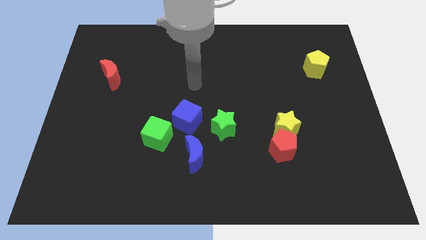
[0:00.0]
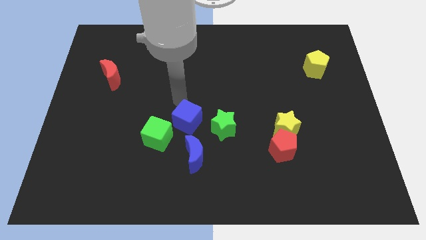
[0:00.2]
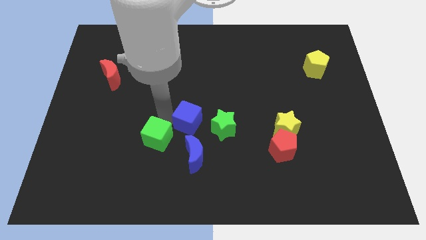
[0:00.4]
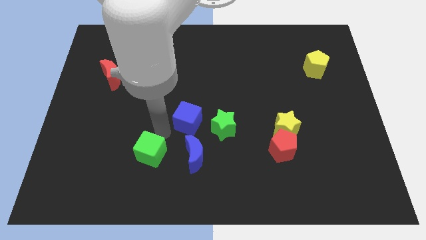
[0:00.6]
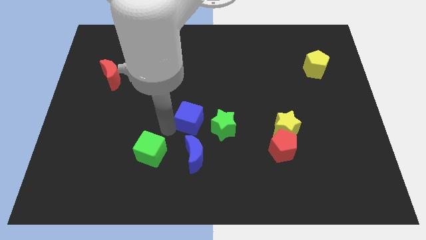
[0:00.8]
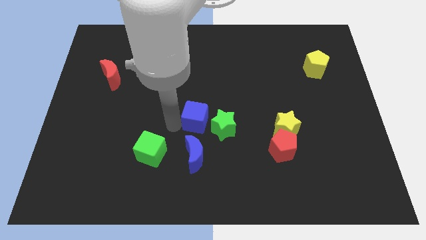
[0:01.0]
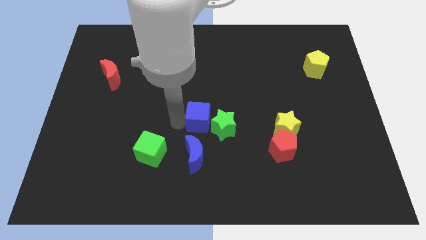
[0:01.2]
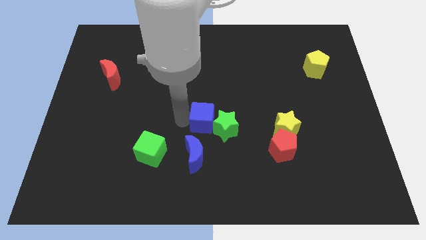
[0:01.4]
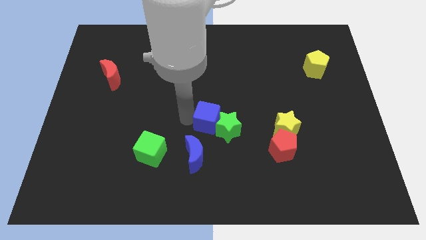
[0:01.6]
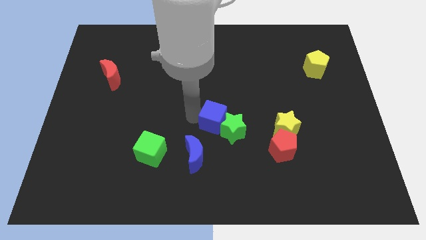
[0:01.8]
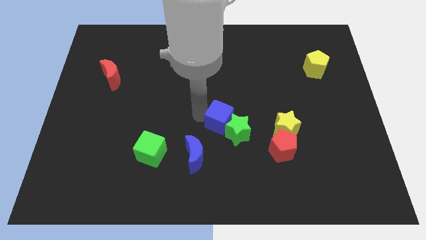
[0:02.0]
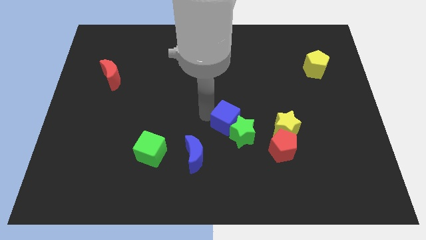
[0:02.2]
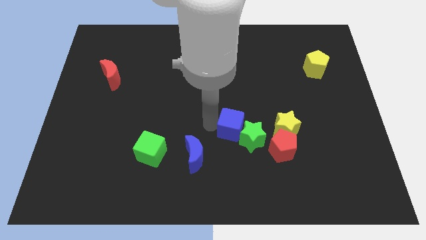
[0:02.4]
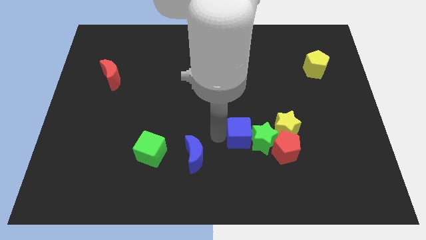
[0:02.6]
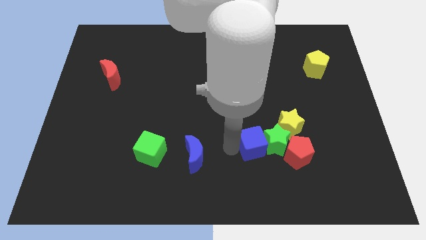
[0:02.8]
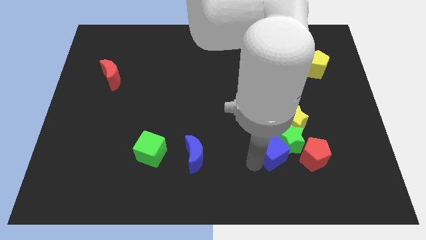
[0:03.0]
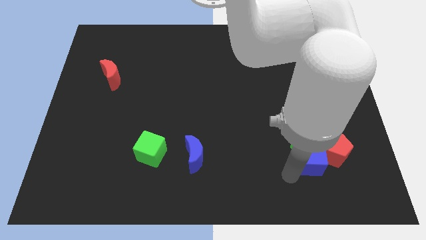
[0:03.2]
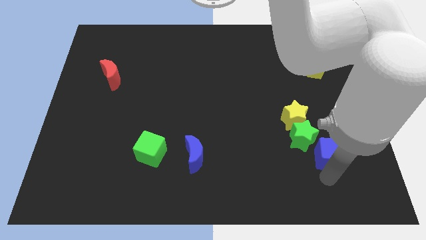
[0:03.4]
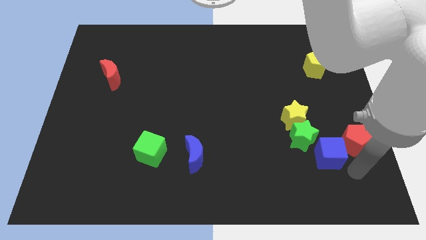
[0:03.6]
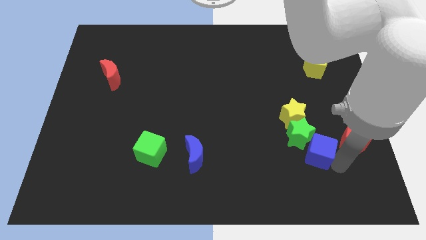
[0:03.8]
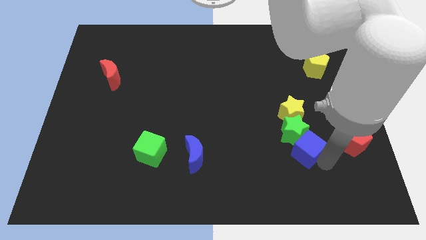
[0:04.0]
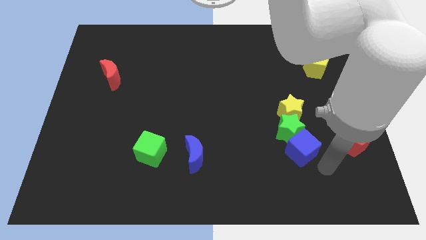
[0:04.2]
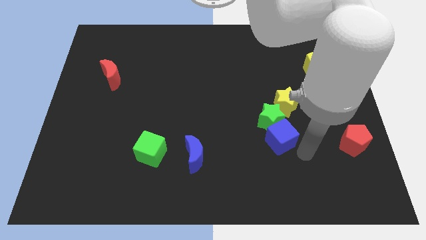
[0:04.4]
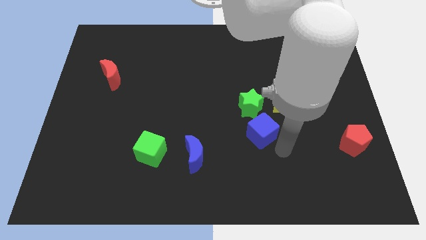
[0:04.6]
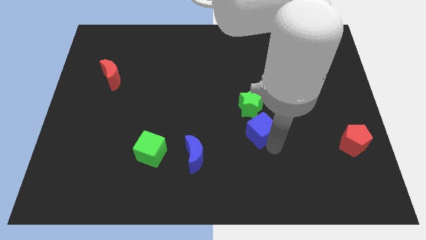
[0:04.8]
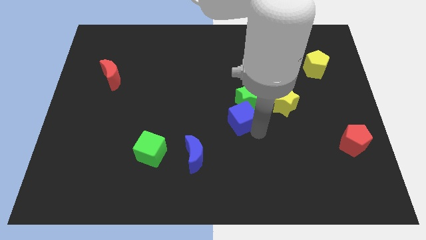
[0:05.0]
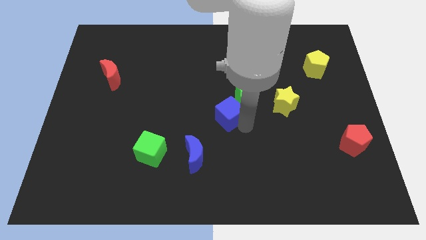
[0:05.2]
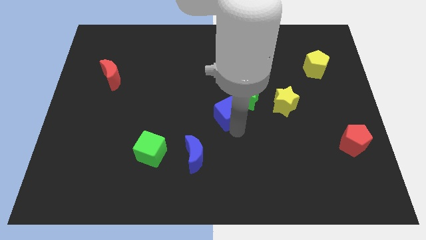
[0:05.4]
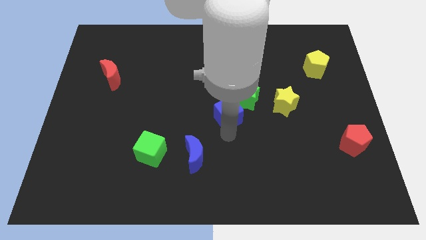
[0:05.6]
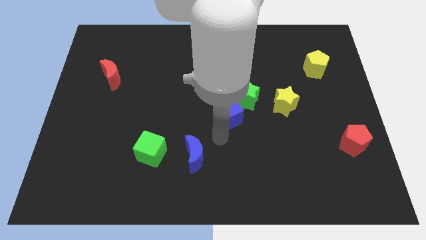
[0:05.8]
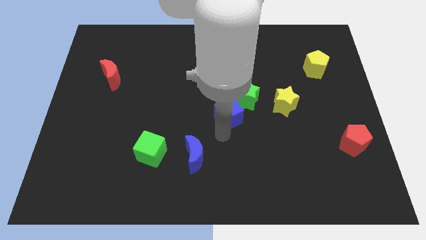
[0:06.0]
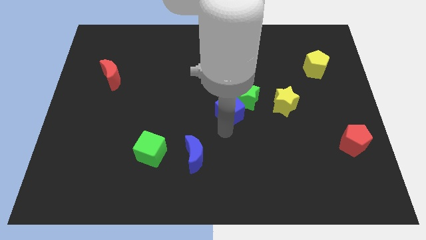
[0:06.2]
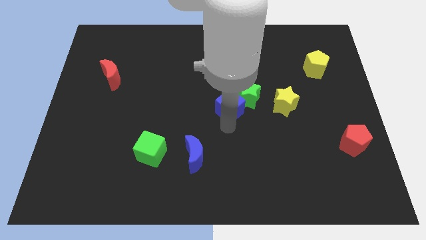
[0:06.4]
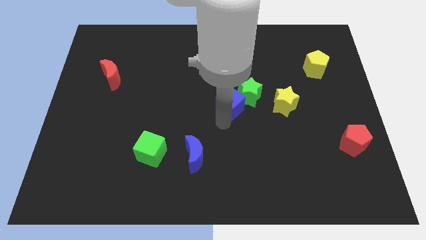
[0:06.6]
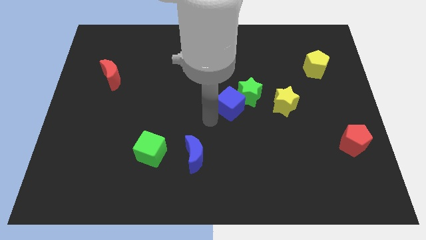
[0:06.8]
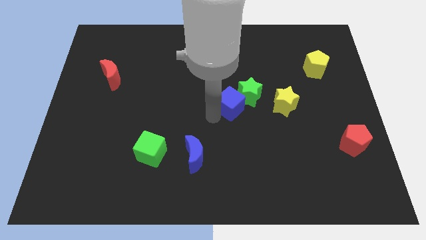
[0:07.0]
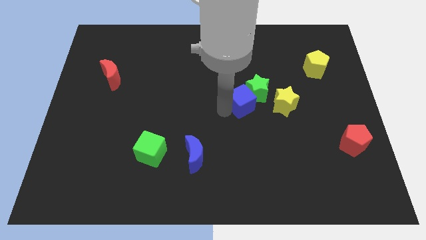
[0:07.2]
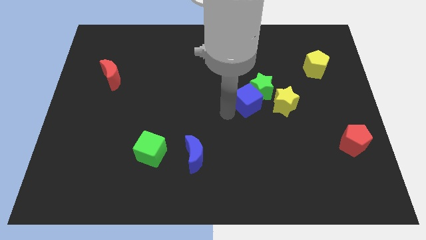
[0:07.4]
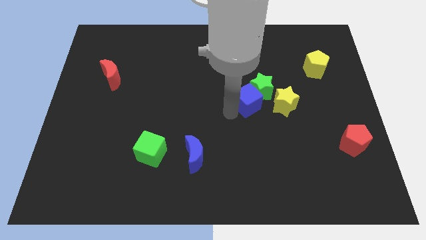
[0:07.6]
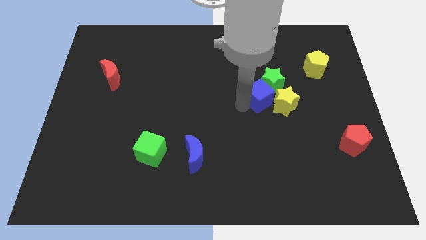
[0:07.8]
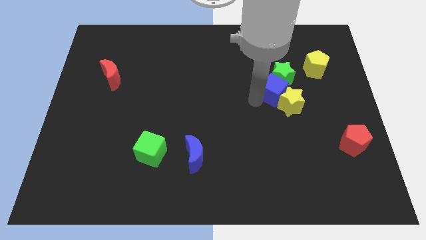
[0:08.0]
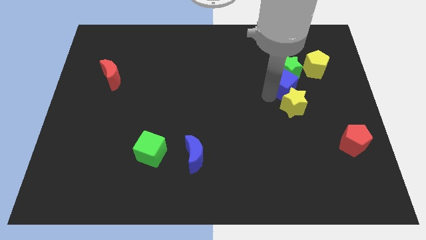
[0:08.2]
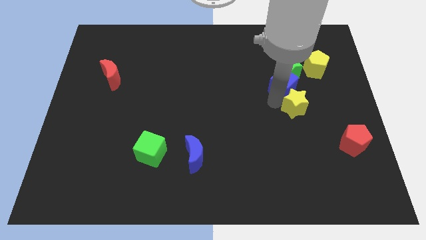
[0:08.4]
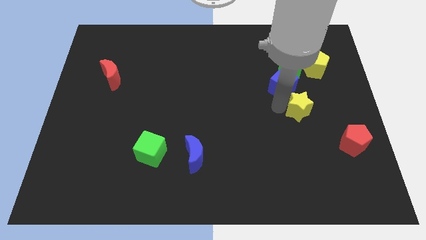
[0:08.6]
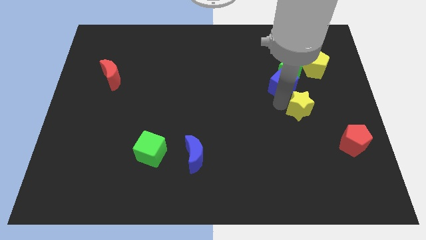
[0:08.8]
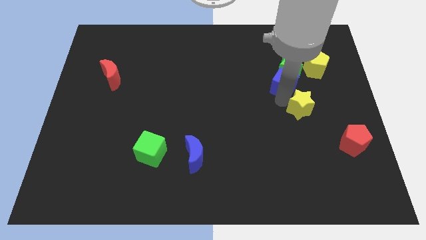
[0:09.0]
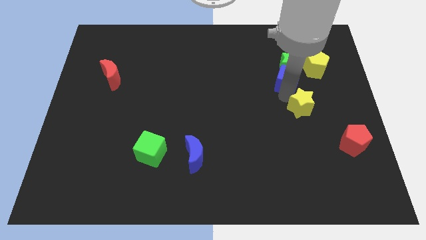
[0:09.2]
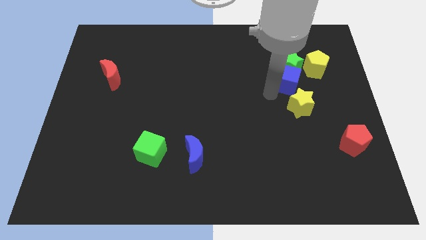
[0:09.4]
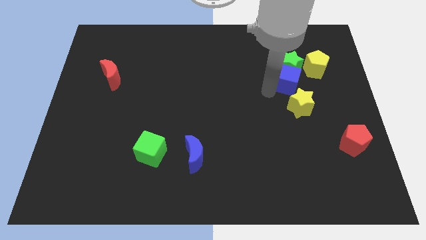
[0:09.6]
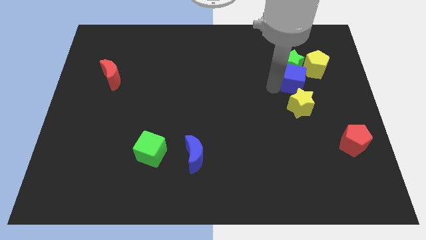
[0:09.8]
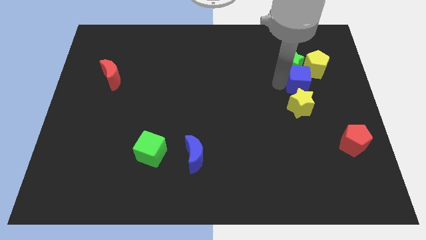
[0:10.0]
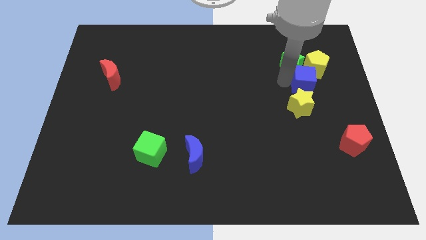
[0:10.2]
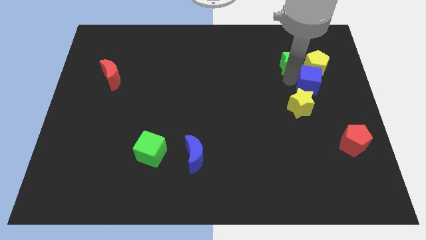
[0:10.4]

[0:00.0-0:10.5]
push the blue cube next to the yellow pentagon

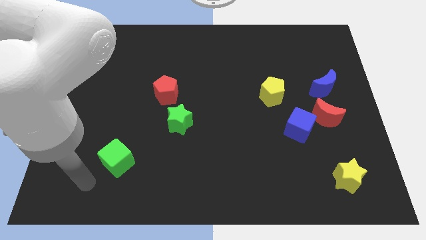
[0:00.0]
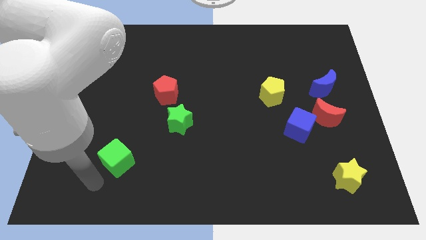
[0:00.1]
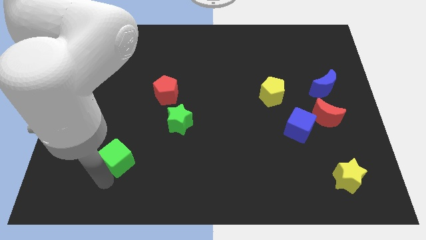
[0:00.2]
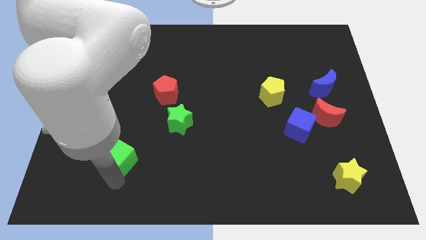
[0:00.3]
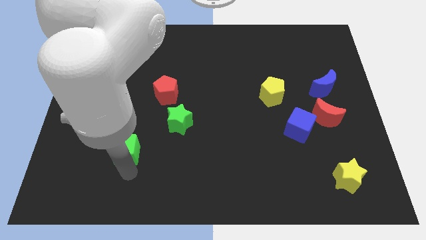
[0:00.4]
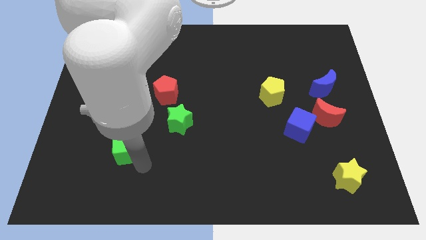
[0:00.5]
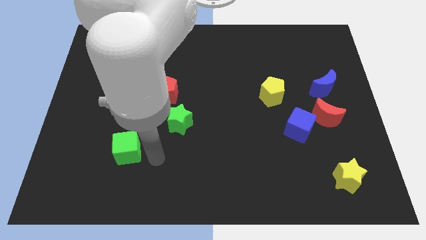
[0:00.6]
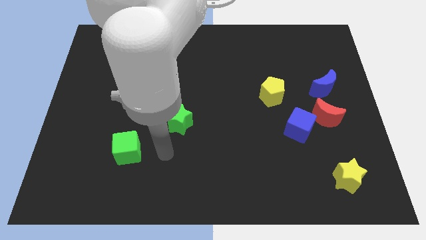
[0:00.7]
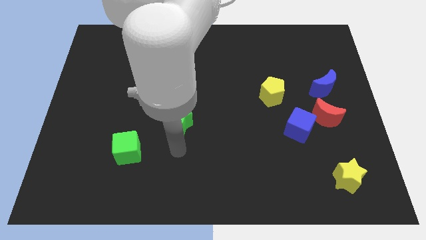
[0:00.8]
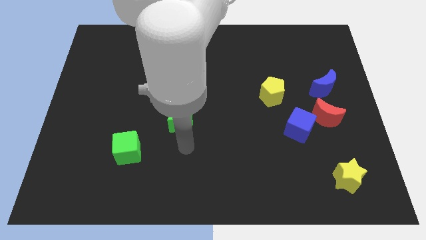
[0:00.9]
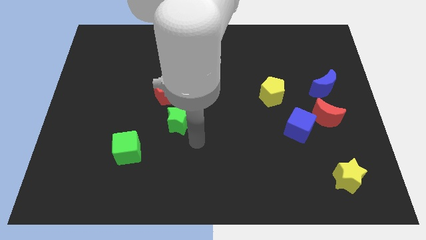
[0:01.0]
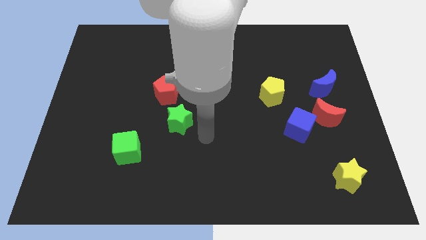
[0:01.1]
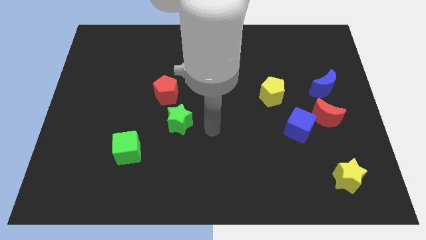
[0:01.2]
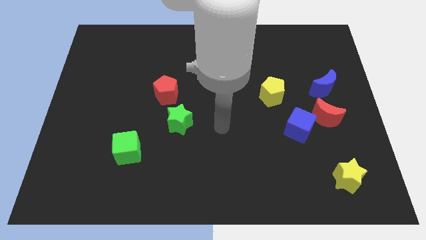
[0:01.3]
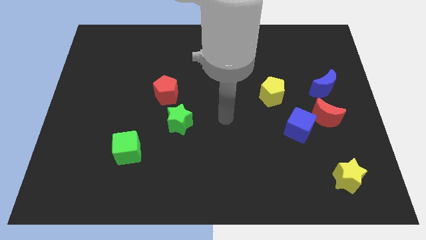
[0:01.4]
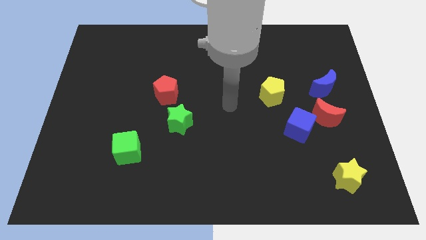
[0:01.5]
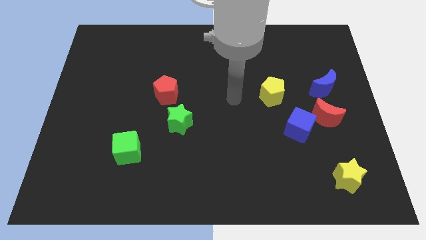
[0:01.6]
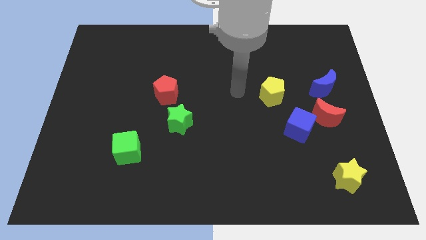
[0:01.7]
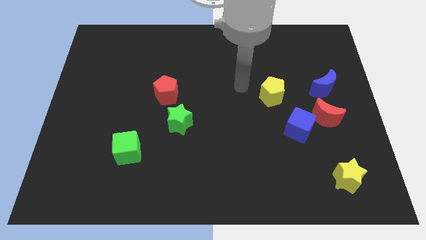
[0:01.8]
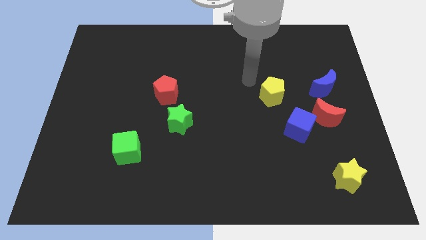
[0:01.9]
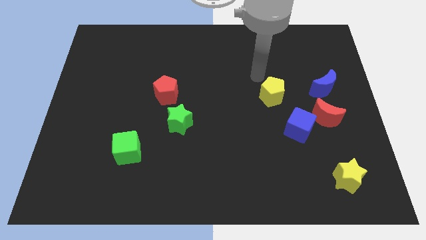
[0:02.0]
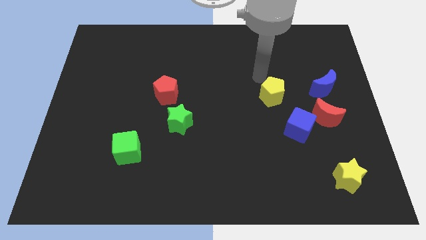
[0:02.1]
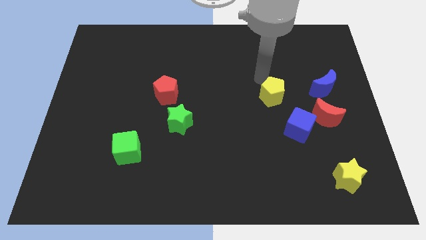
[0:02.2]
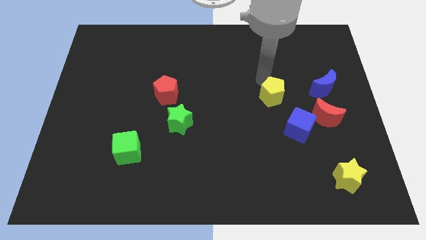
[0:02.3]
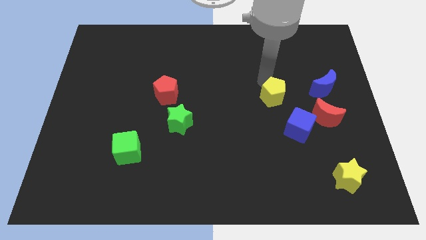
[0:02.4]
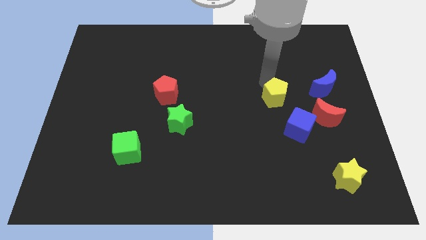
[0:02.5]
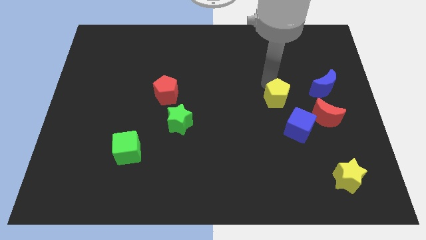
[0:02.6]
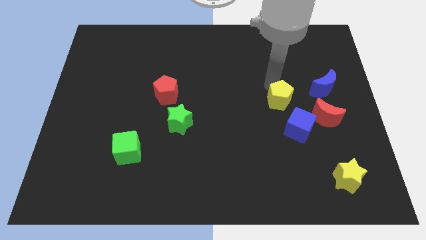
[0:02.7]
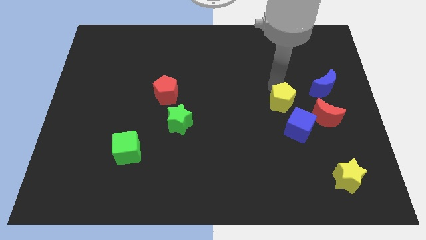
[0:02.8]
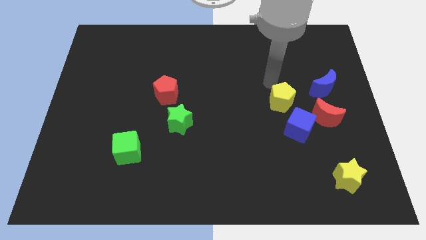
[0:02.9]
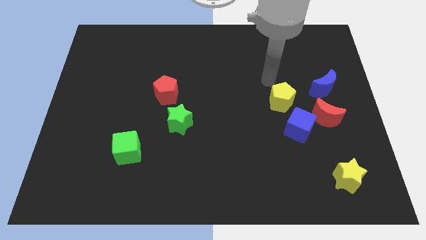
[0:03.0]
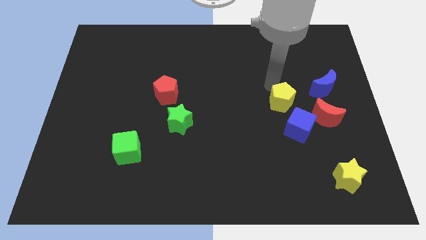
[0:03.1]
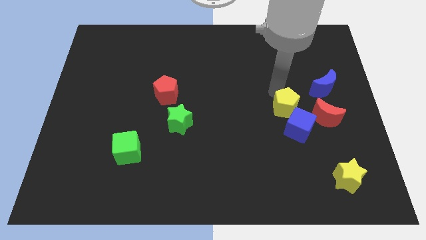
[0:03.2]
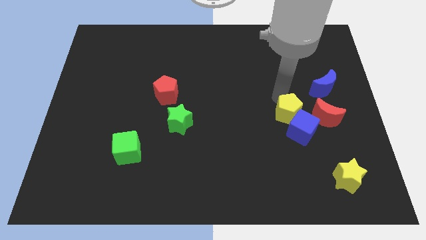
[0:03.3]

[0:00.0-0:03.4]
put the yellow pentagon to the blue cube
